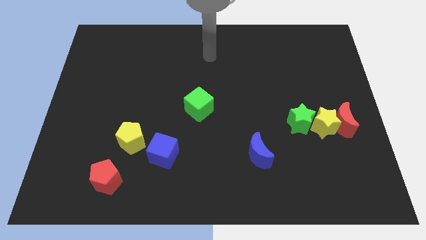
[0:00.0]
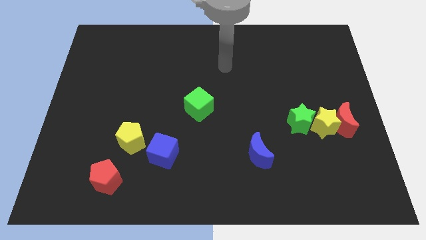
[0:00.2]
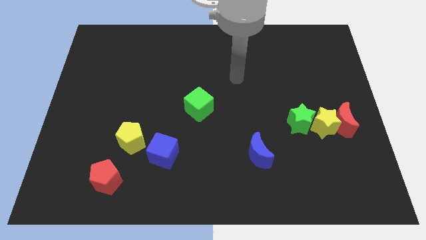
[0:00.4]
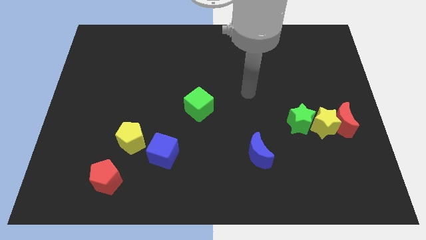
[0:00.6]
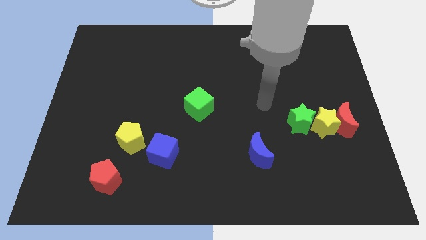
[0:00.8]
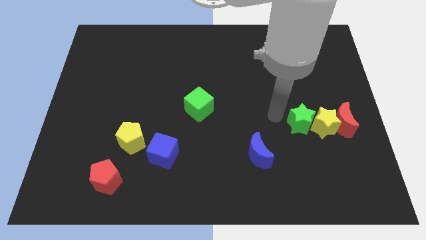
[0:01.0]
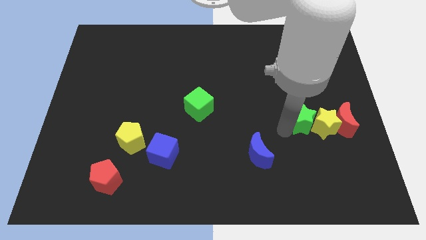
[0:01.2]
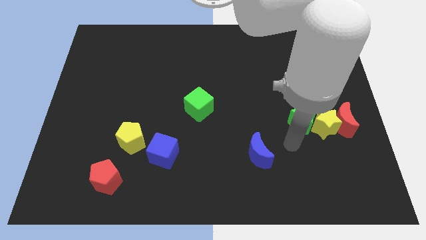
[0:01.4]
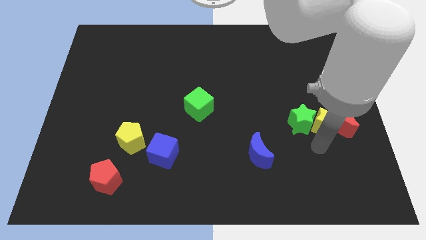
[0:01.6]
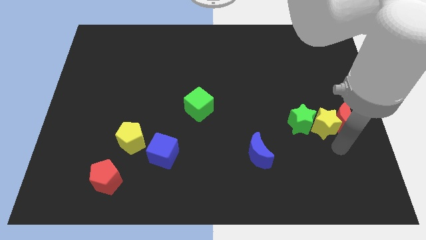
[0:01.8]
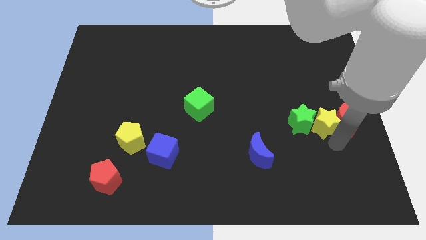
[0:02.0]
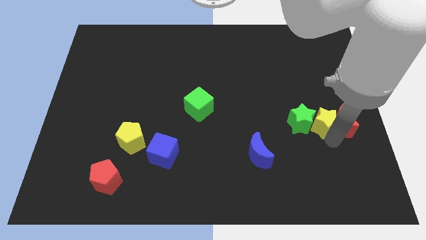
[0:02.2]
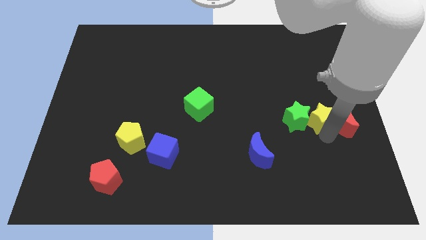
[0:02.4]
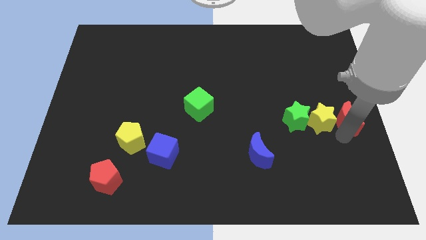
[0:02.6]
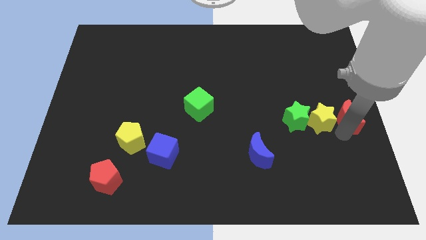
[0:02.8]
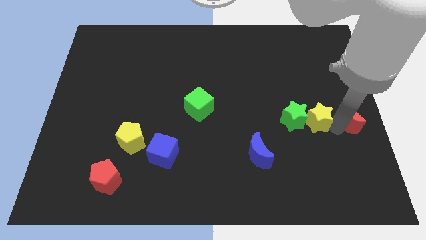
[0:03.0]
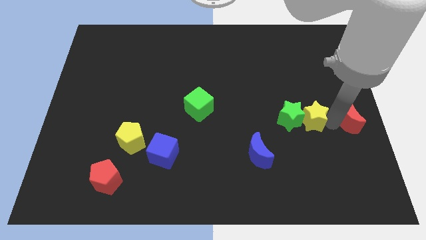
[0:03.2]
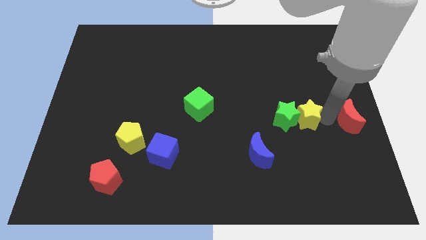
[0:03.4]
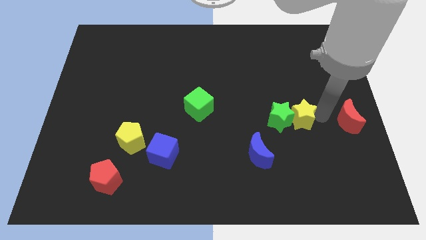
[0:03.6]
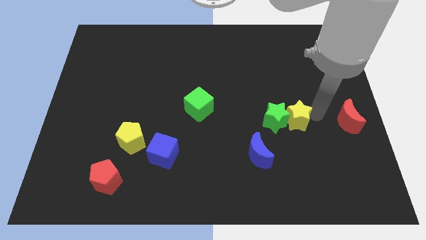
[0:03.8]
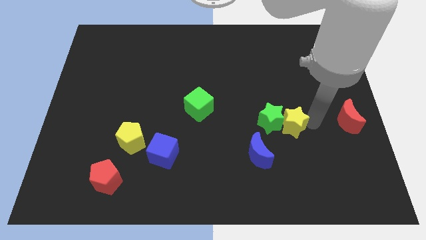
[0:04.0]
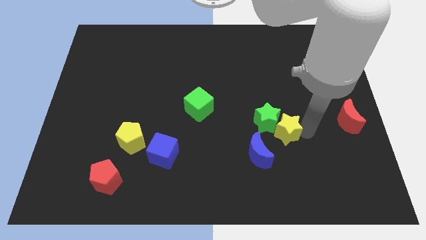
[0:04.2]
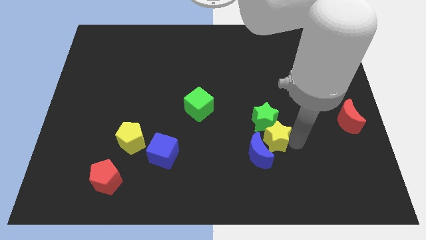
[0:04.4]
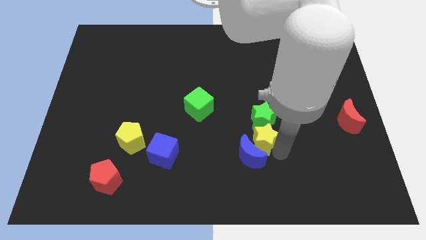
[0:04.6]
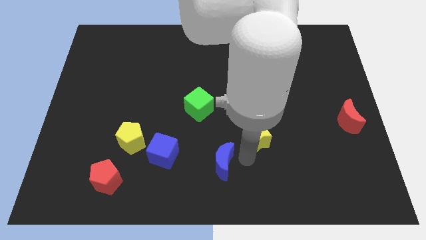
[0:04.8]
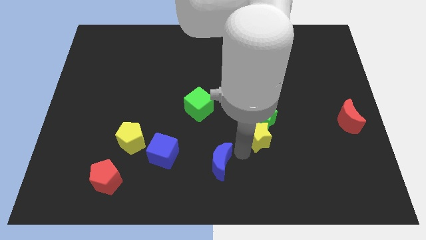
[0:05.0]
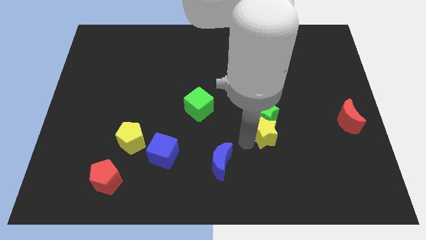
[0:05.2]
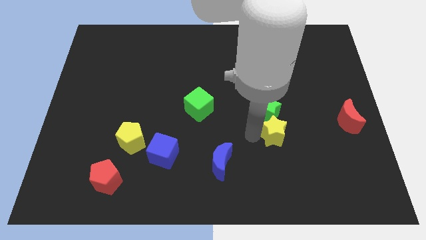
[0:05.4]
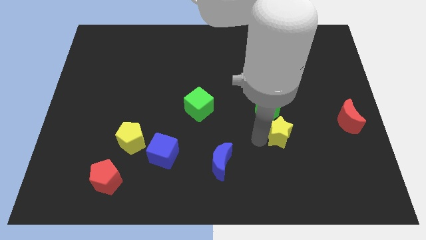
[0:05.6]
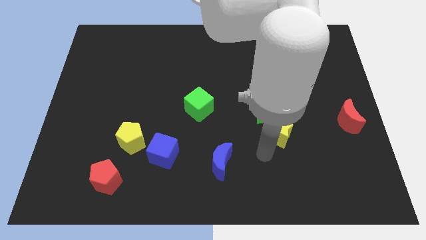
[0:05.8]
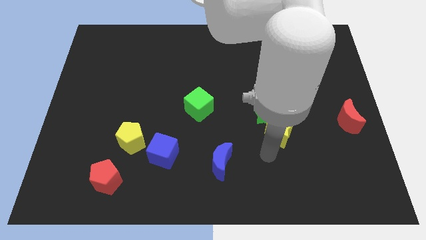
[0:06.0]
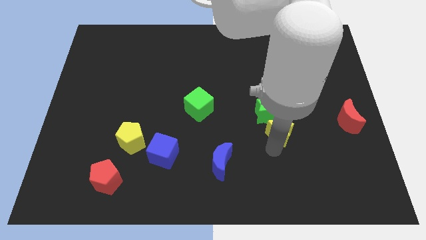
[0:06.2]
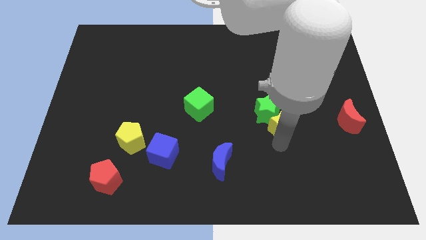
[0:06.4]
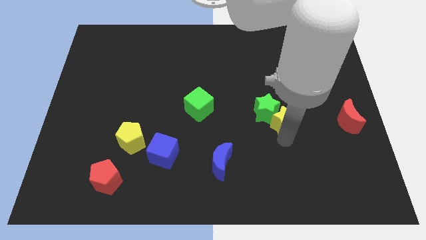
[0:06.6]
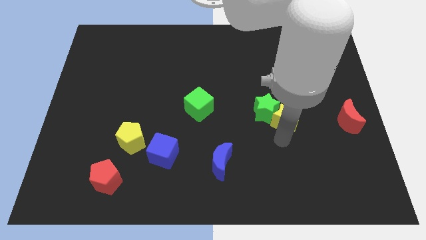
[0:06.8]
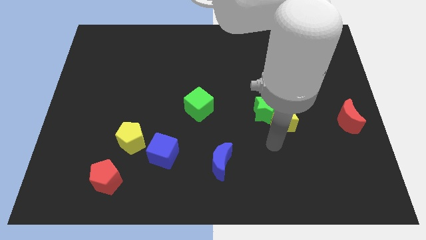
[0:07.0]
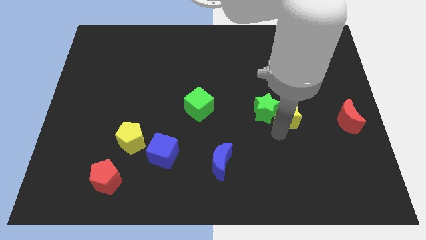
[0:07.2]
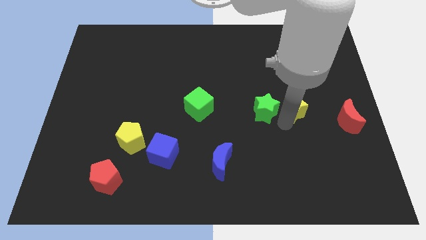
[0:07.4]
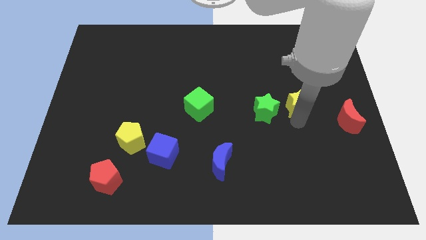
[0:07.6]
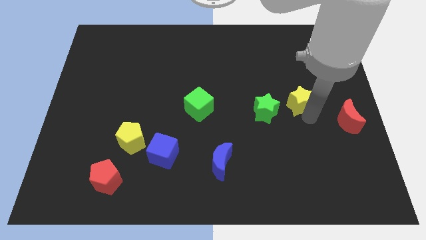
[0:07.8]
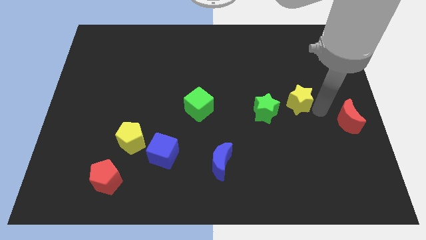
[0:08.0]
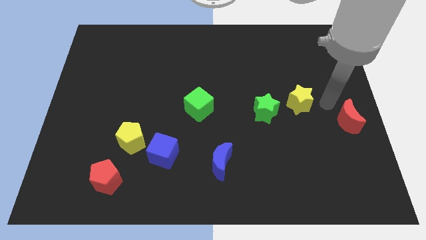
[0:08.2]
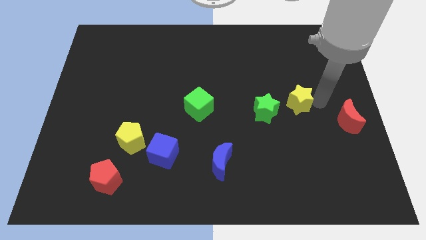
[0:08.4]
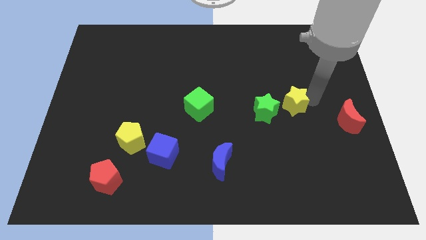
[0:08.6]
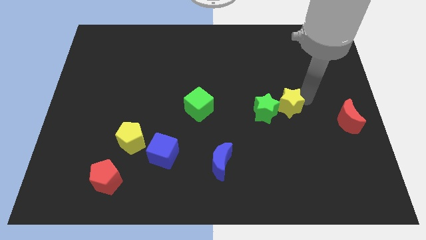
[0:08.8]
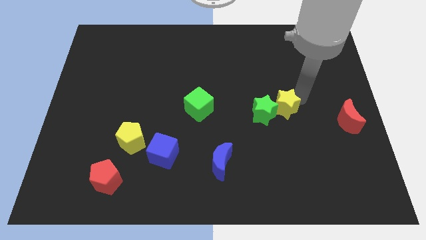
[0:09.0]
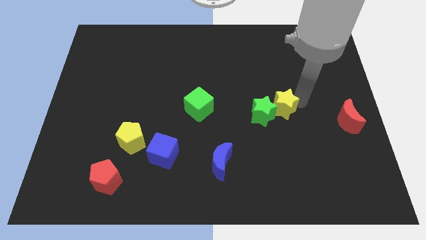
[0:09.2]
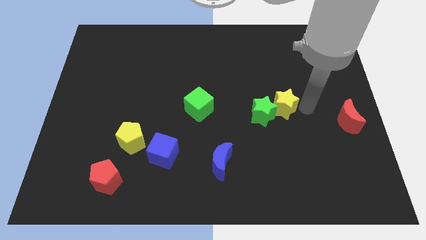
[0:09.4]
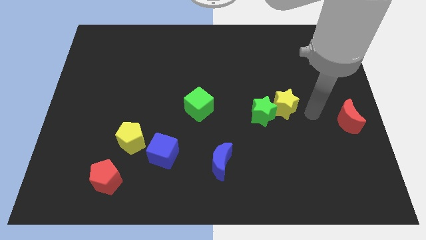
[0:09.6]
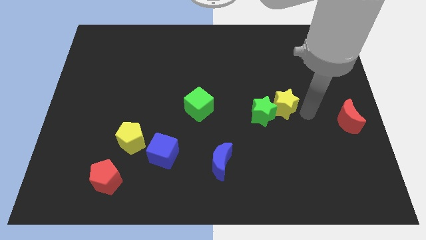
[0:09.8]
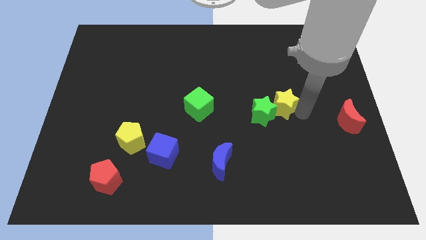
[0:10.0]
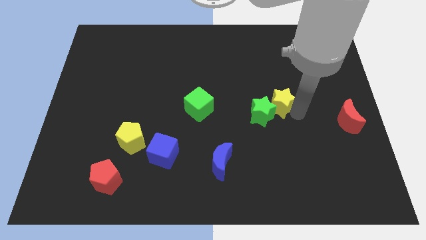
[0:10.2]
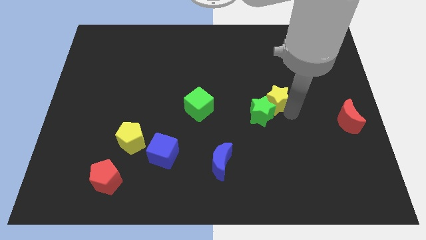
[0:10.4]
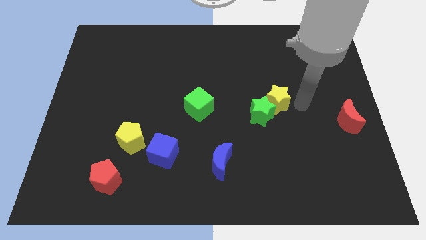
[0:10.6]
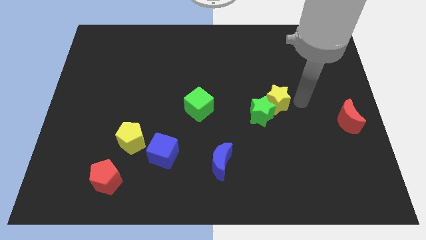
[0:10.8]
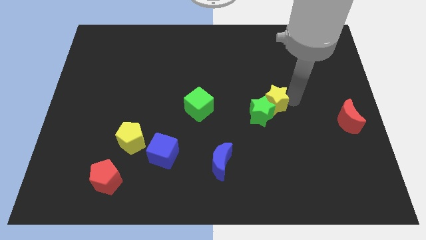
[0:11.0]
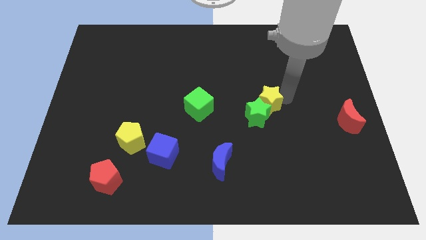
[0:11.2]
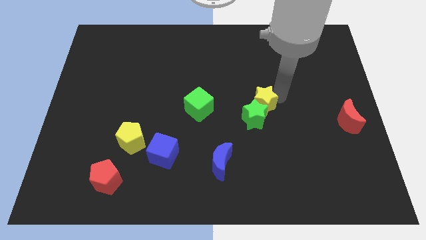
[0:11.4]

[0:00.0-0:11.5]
move the yellow star to the middle of the board
